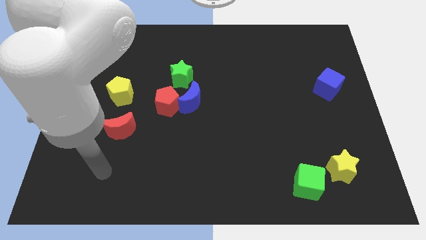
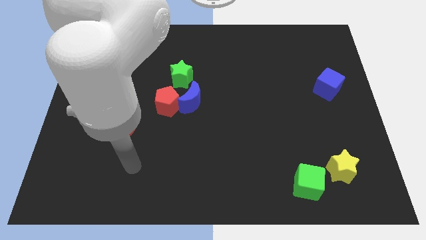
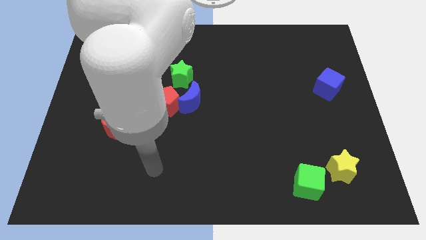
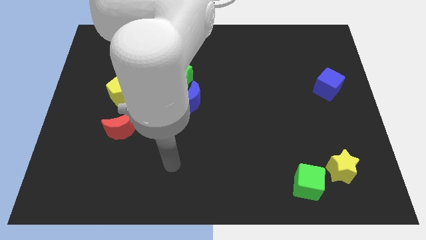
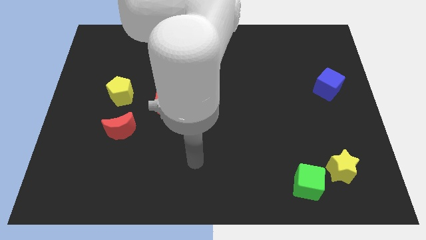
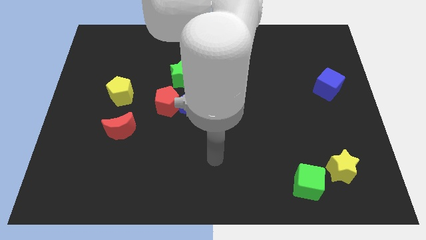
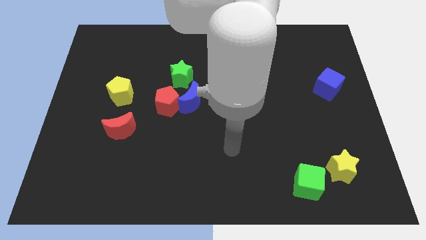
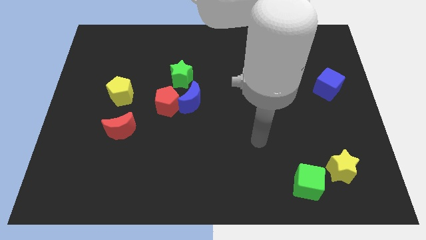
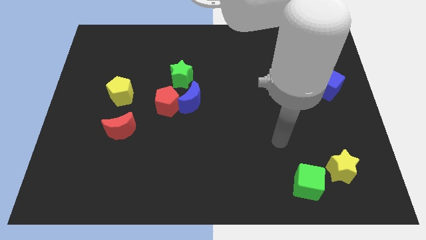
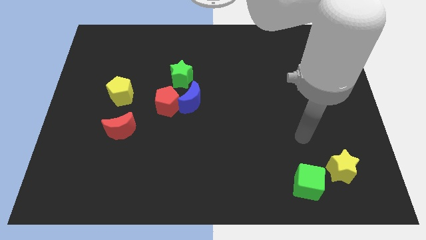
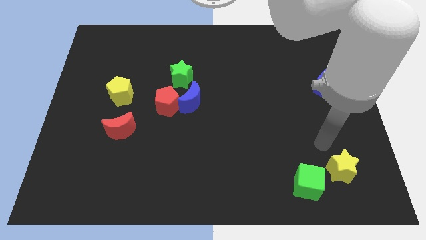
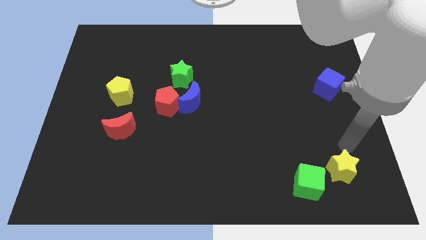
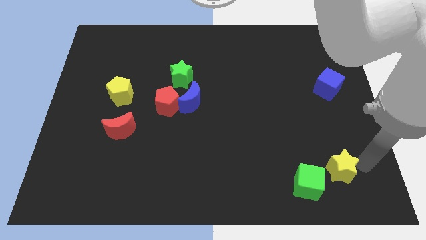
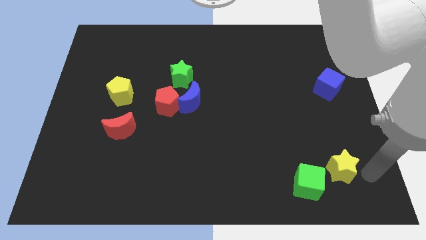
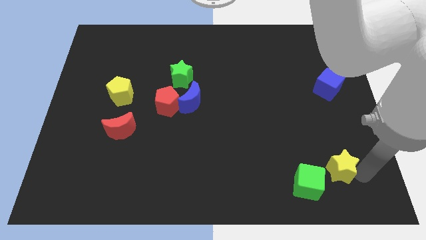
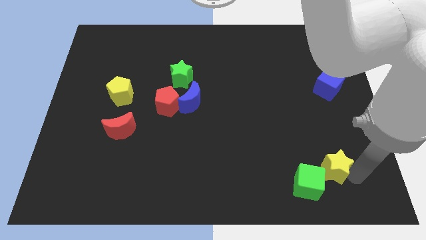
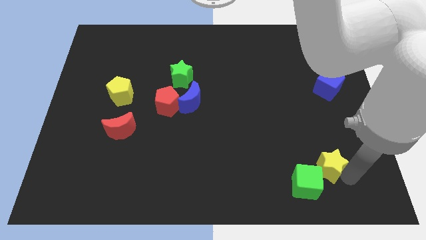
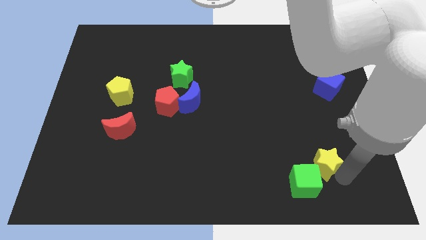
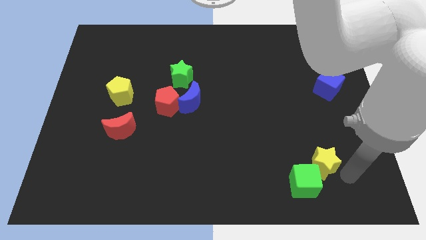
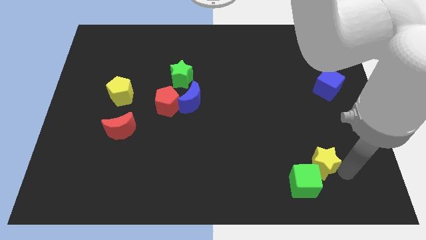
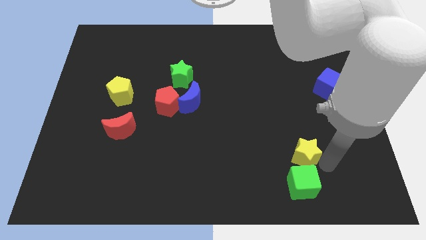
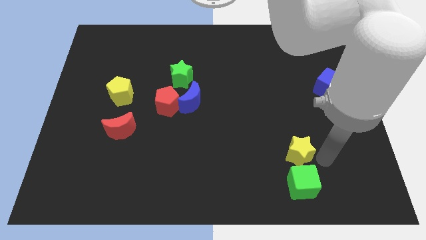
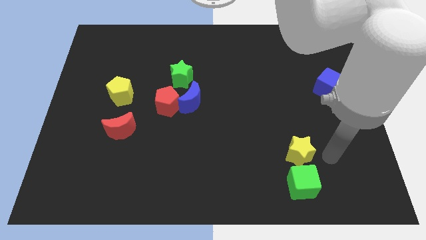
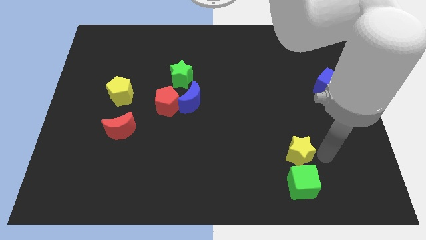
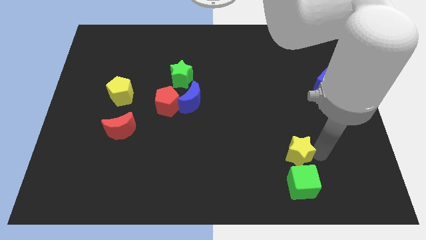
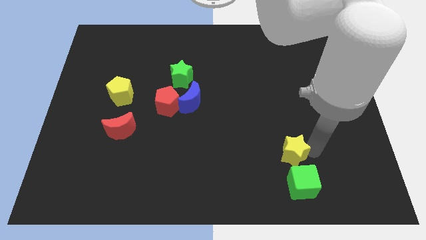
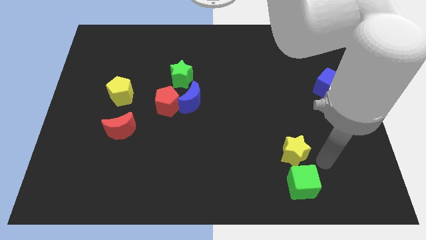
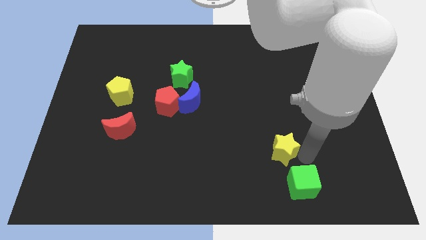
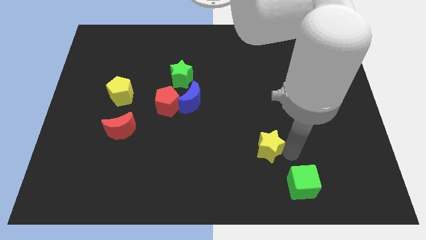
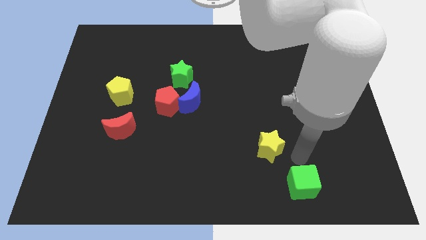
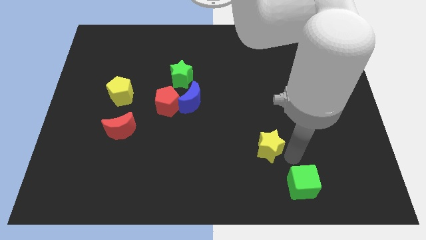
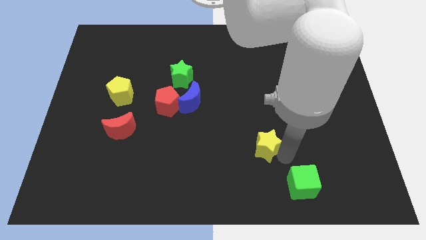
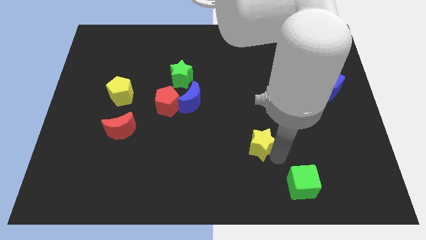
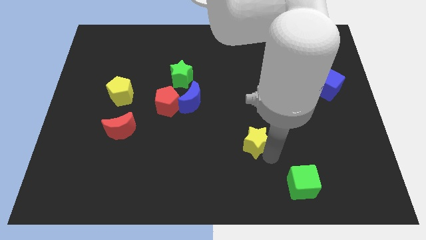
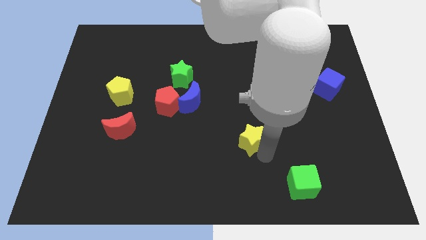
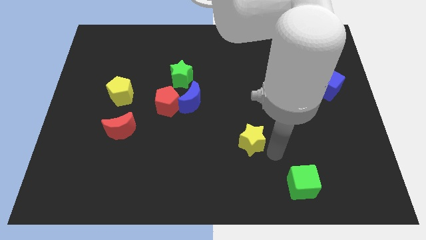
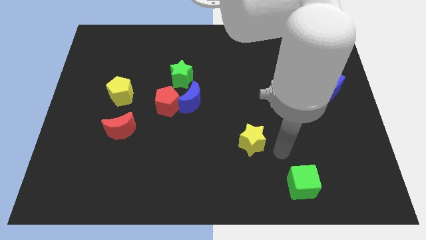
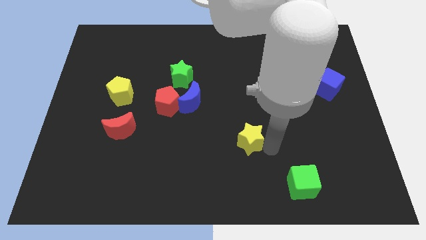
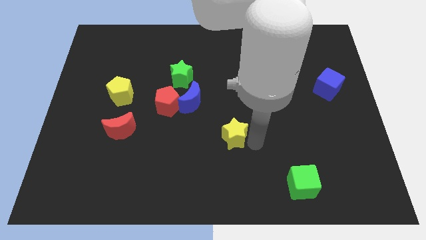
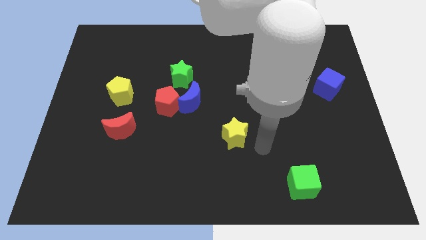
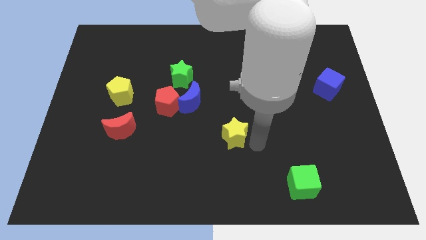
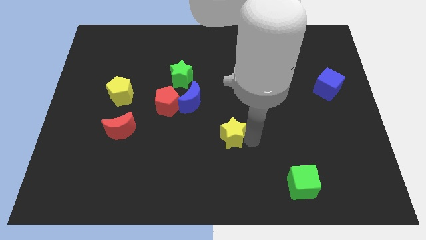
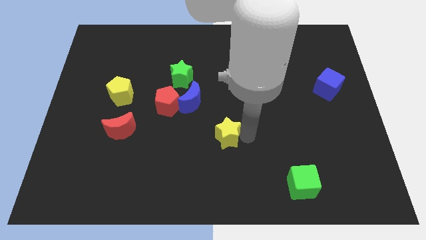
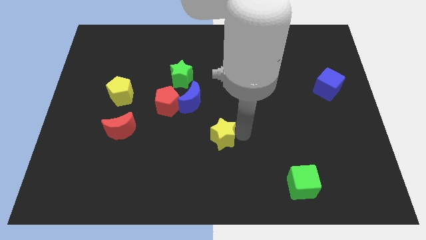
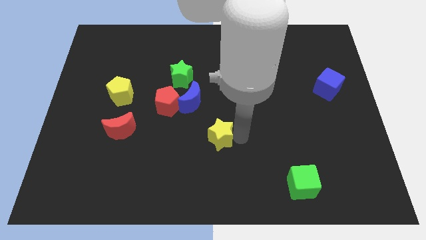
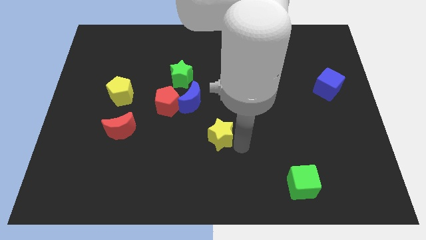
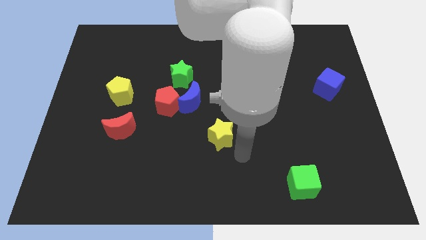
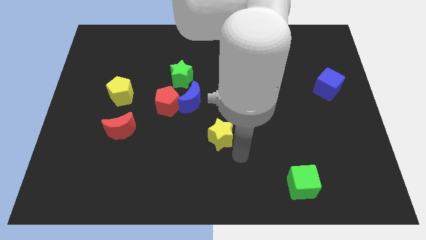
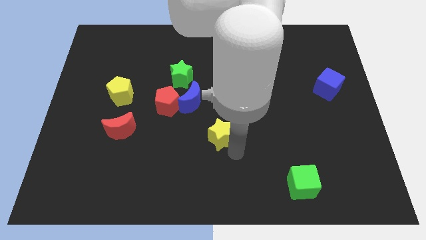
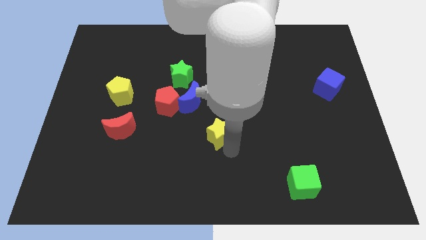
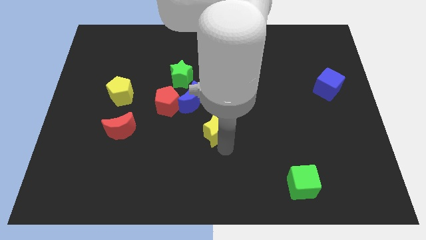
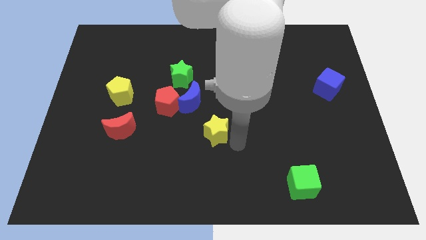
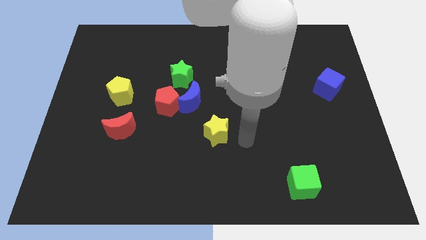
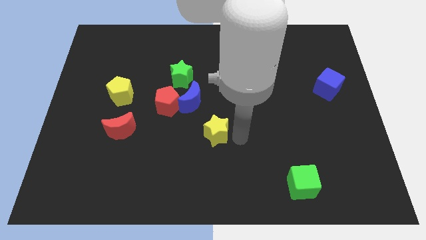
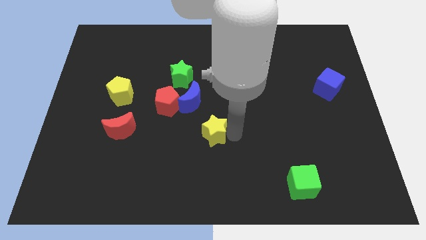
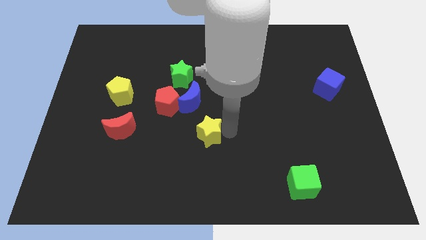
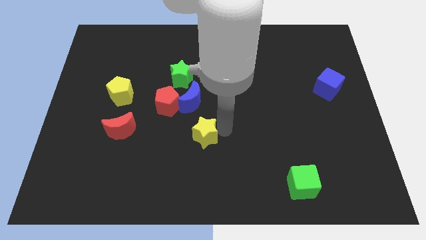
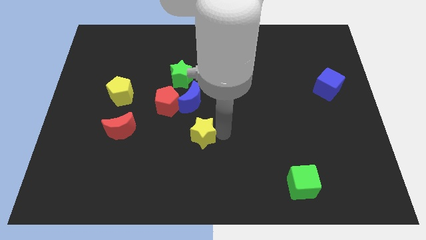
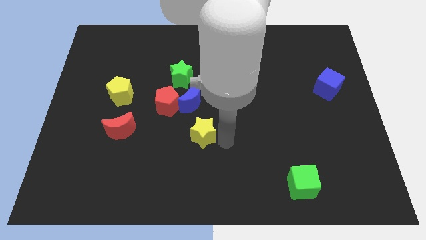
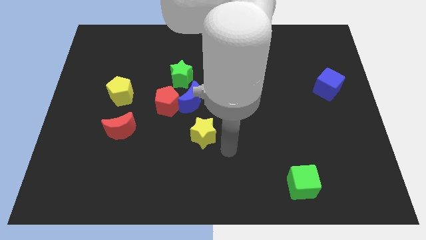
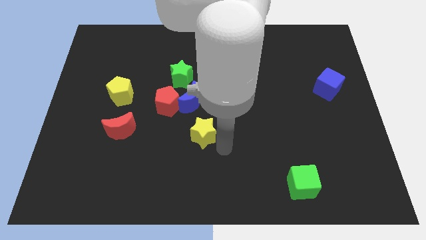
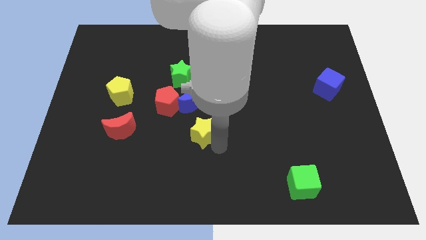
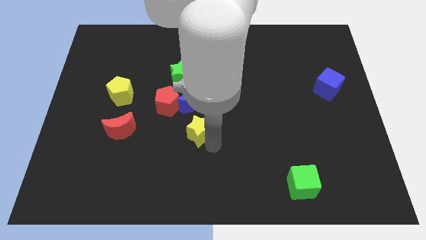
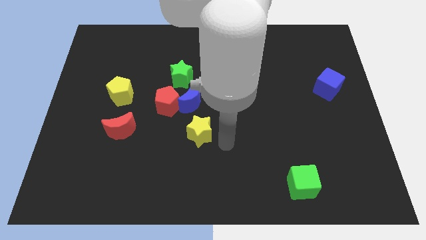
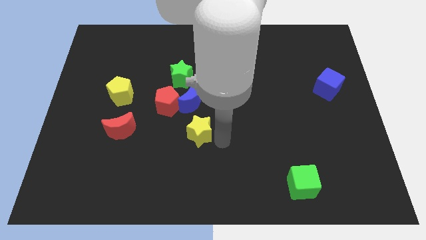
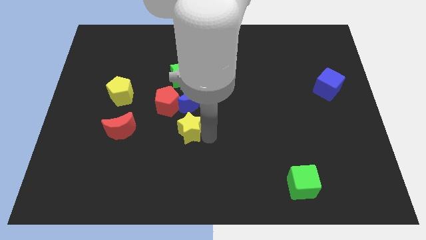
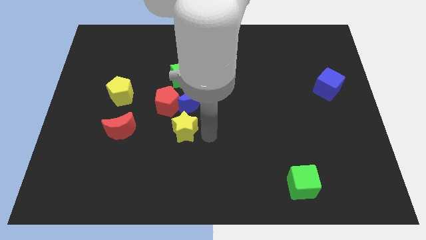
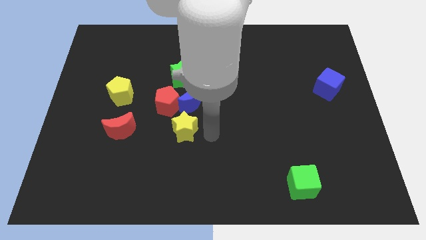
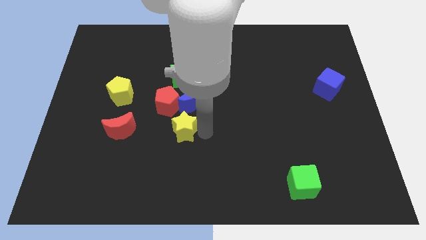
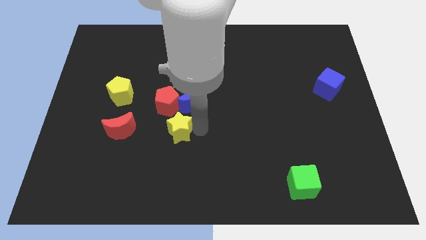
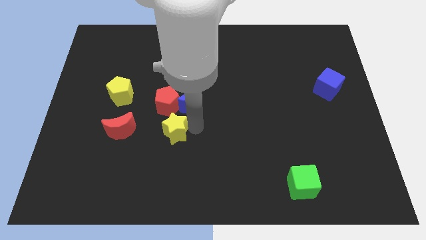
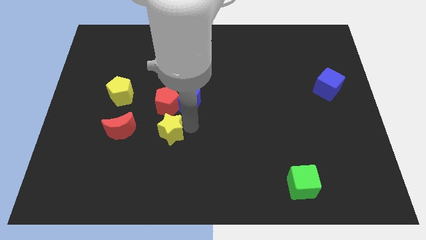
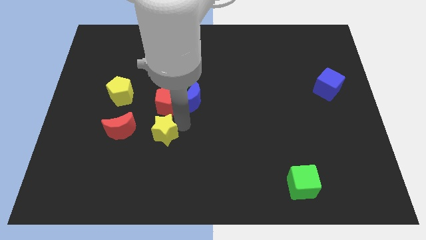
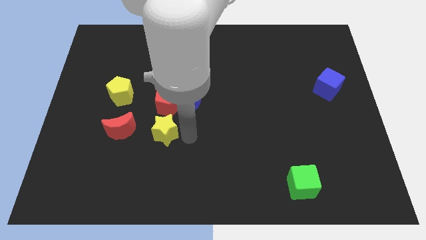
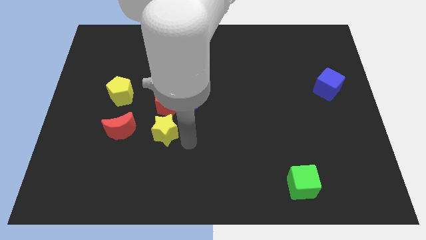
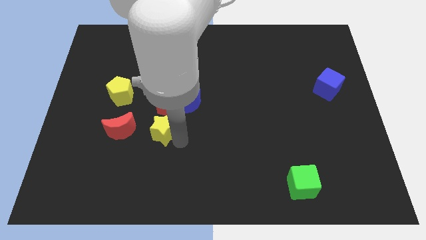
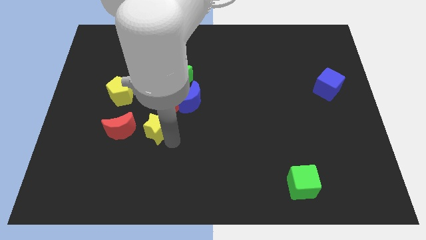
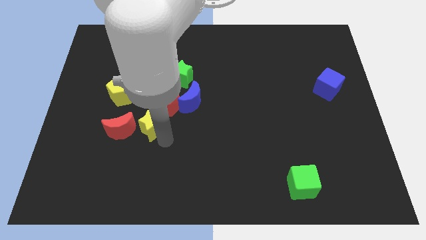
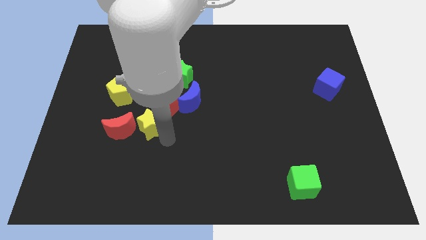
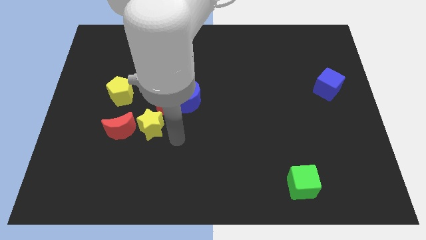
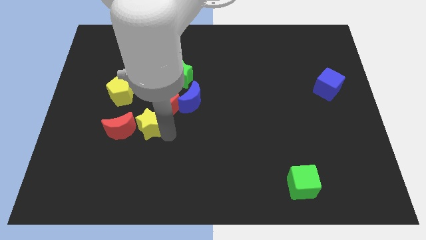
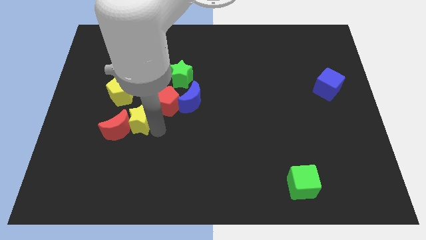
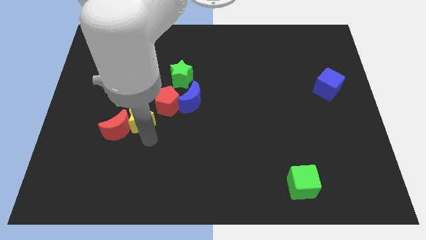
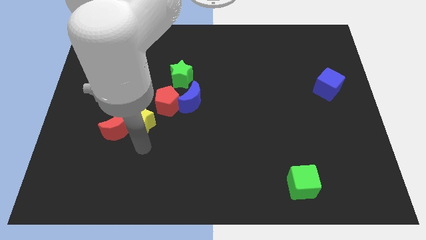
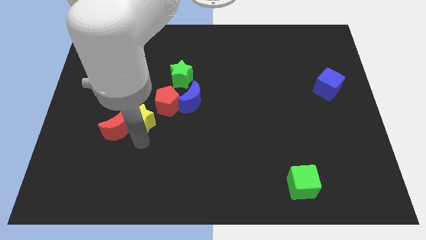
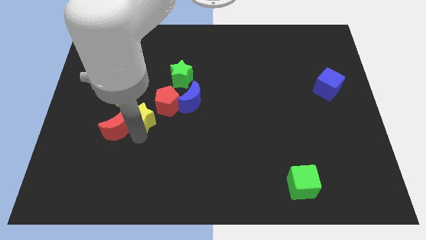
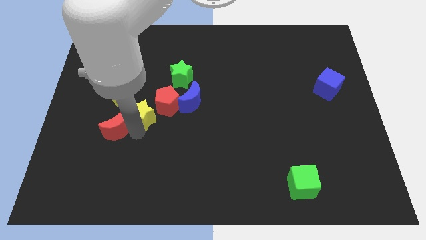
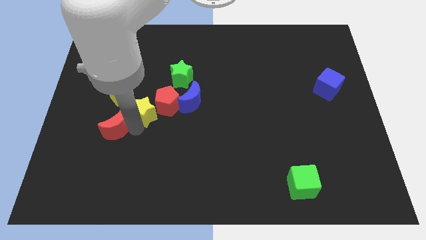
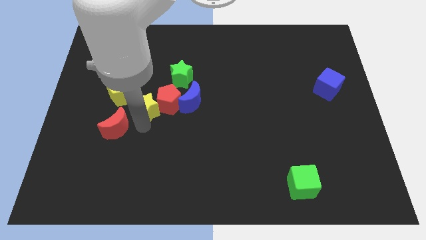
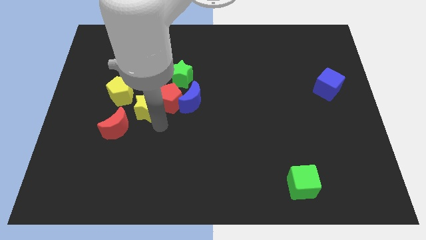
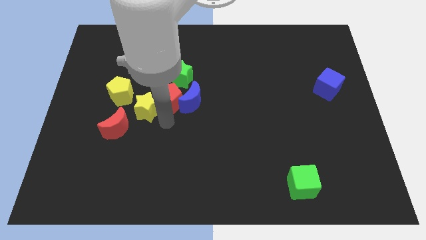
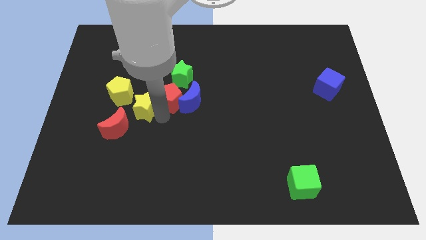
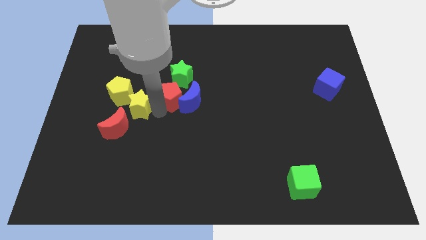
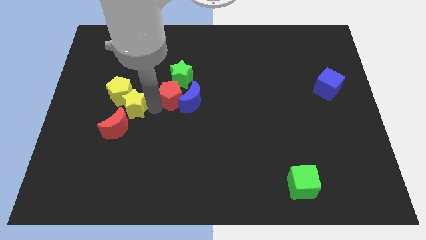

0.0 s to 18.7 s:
put the yellow star next to the yellow pentagon
